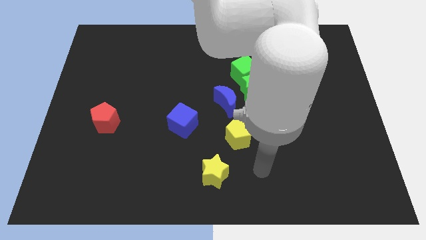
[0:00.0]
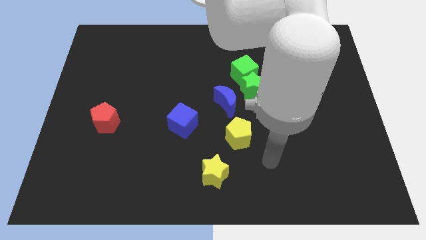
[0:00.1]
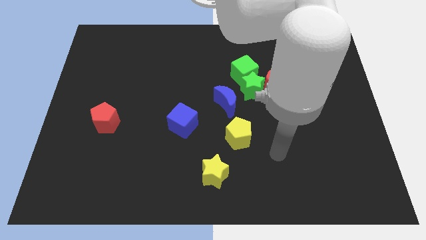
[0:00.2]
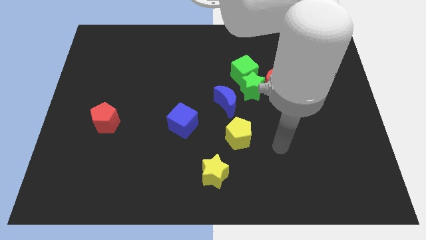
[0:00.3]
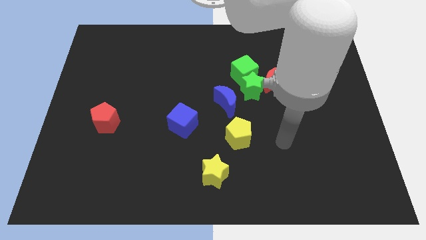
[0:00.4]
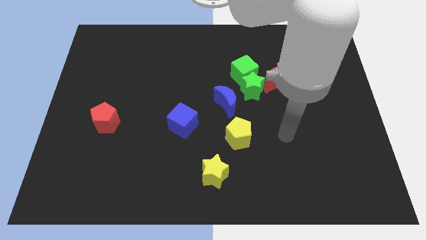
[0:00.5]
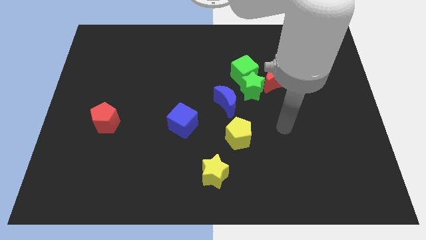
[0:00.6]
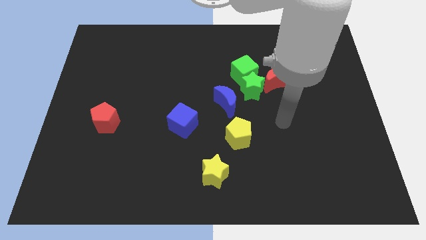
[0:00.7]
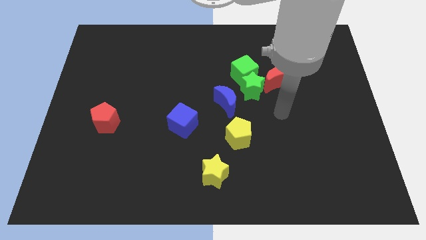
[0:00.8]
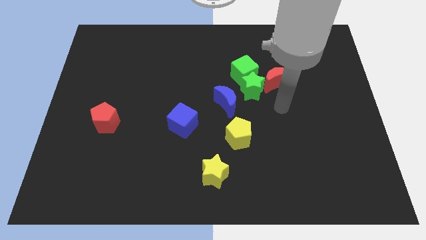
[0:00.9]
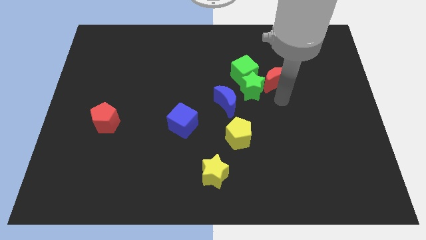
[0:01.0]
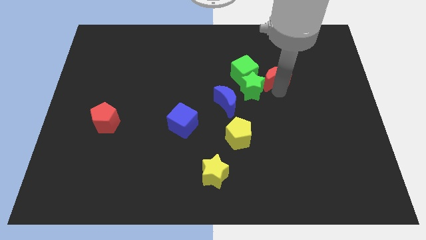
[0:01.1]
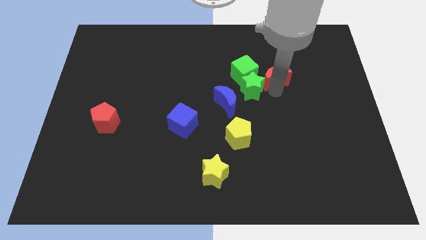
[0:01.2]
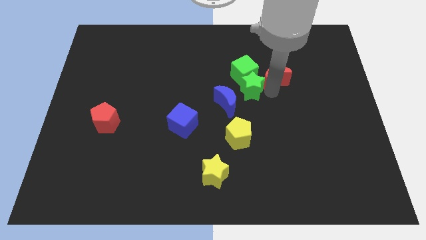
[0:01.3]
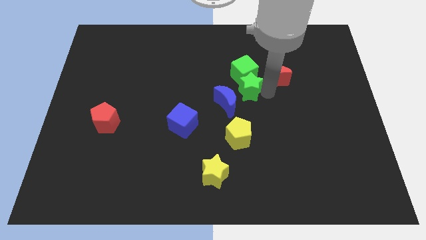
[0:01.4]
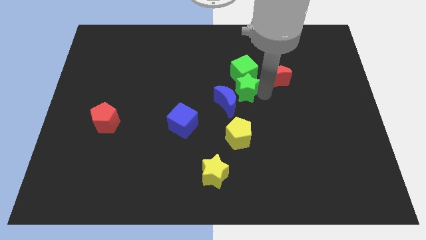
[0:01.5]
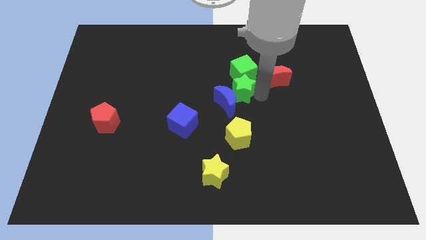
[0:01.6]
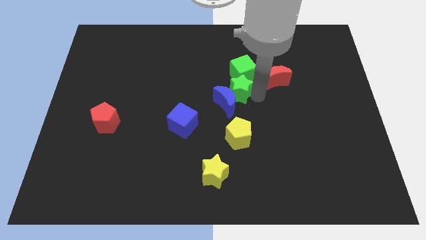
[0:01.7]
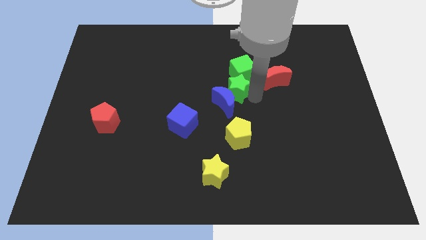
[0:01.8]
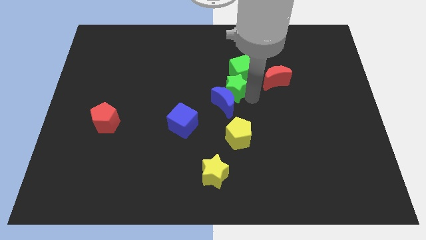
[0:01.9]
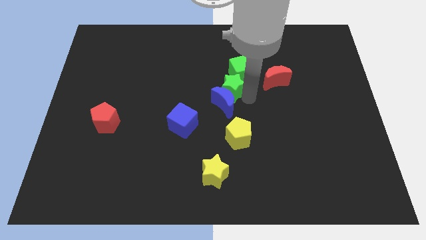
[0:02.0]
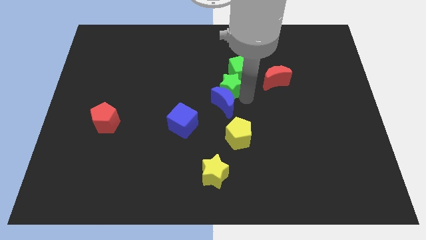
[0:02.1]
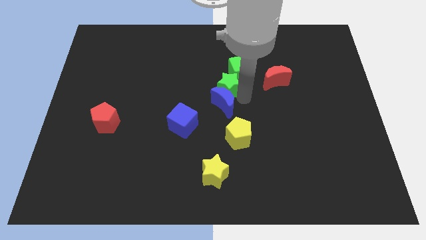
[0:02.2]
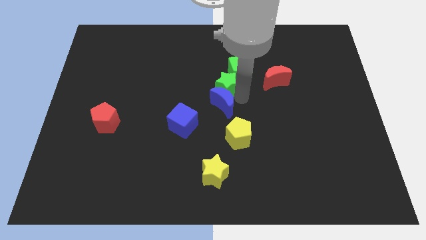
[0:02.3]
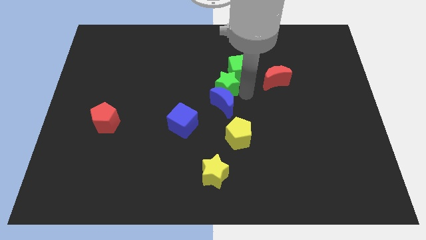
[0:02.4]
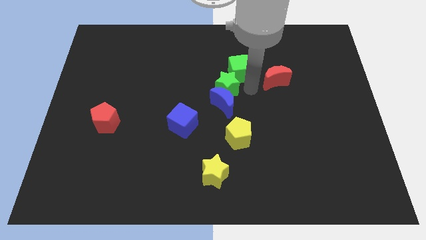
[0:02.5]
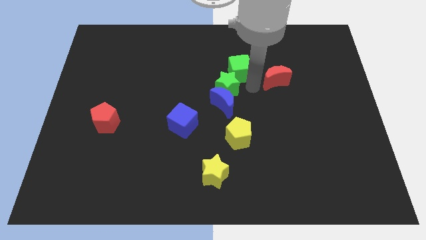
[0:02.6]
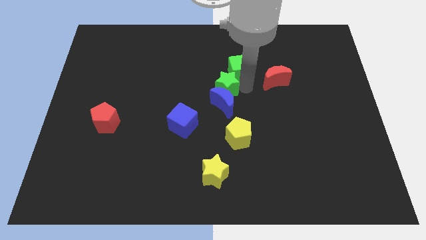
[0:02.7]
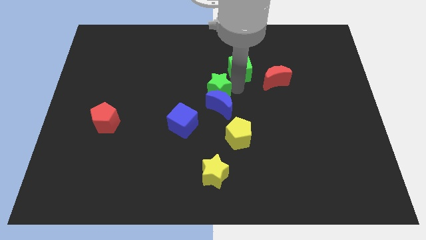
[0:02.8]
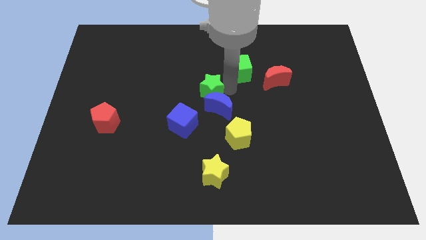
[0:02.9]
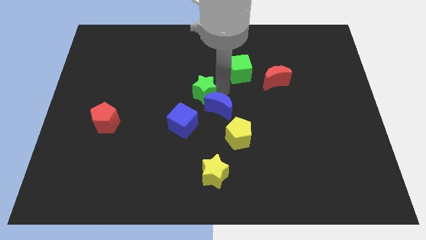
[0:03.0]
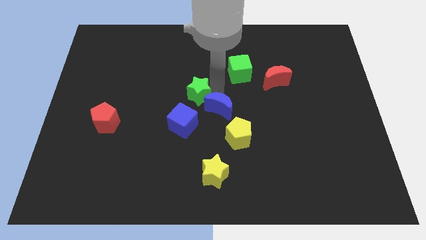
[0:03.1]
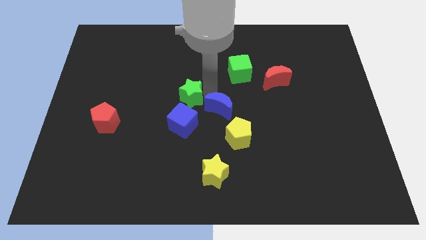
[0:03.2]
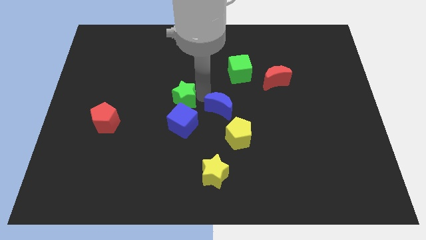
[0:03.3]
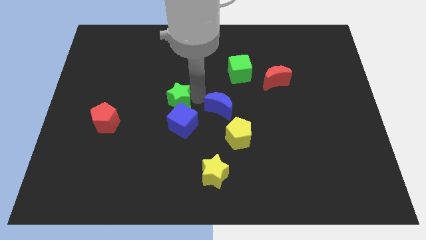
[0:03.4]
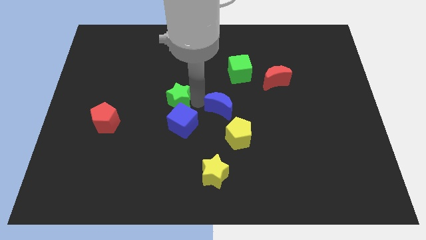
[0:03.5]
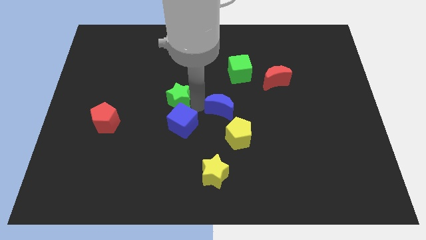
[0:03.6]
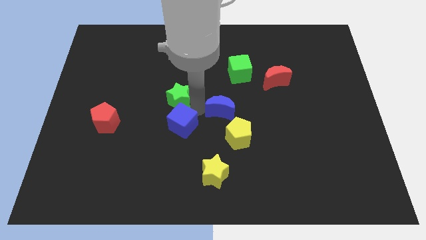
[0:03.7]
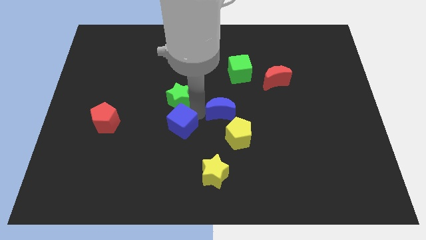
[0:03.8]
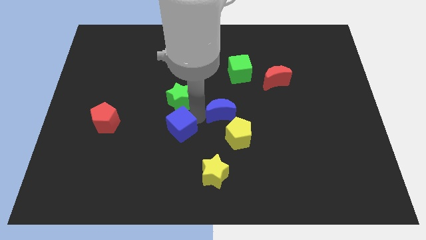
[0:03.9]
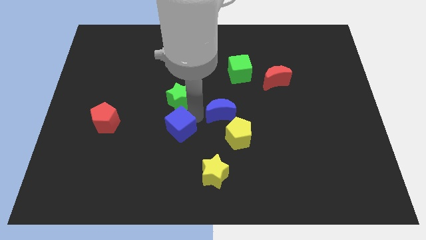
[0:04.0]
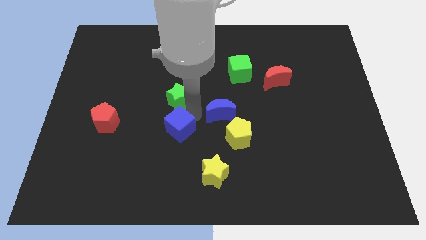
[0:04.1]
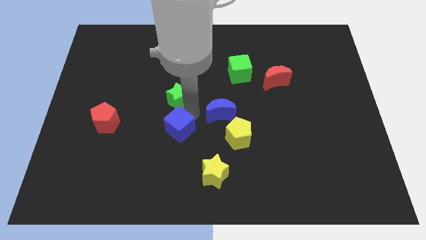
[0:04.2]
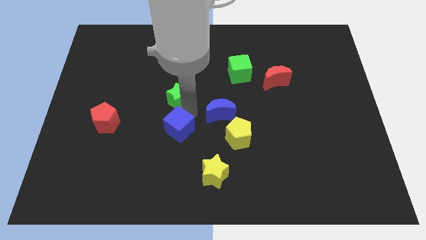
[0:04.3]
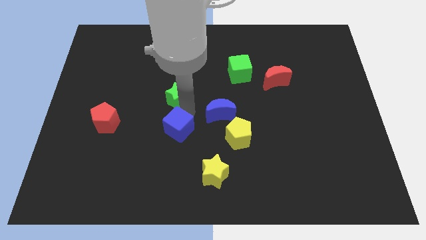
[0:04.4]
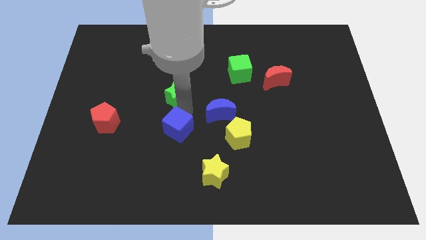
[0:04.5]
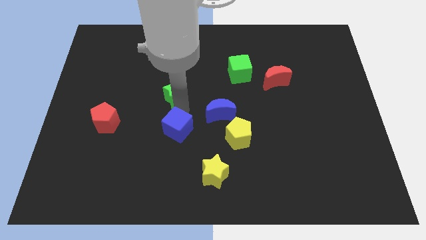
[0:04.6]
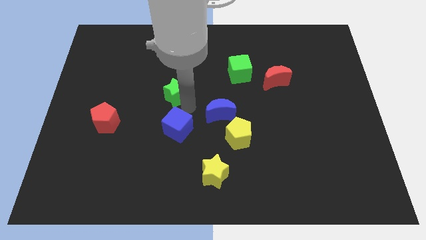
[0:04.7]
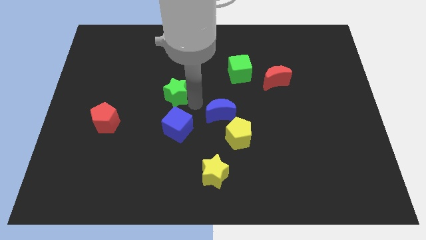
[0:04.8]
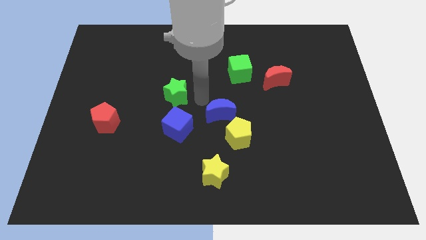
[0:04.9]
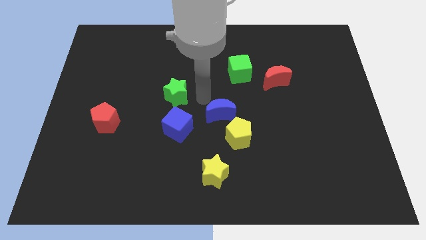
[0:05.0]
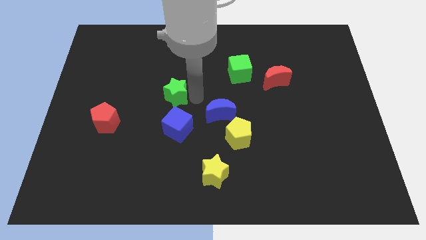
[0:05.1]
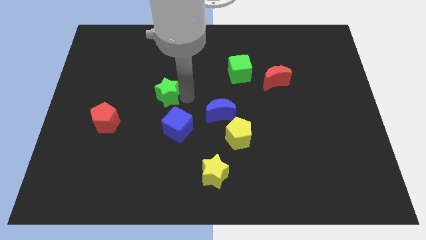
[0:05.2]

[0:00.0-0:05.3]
push the green star left

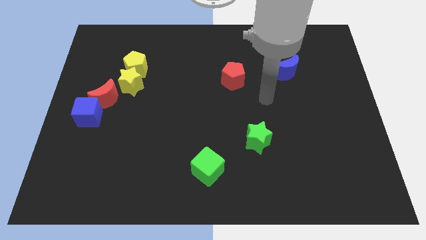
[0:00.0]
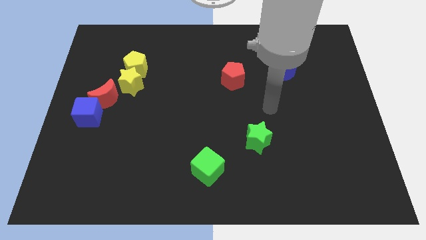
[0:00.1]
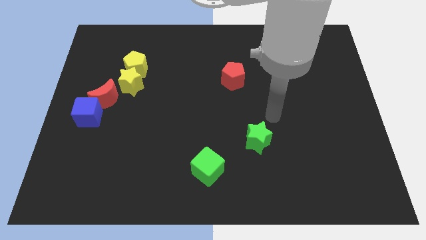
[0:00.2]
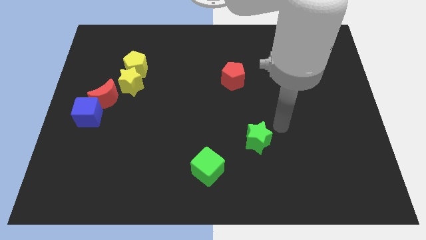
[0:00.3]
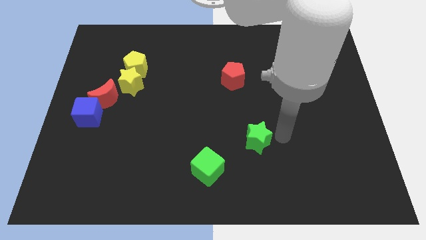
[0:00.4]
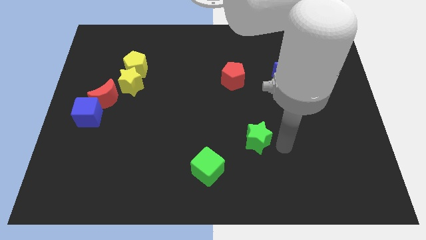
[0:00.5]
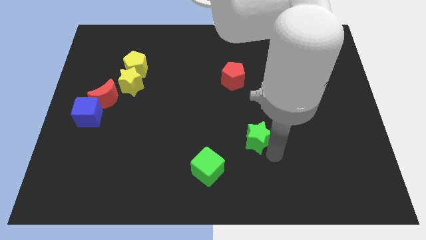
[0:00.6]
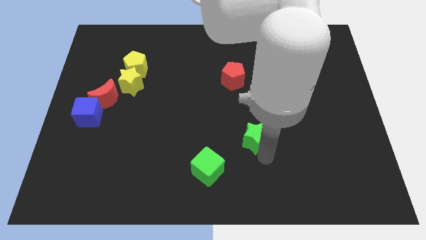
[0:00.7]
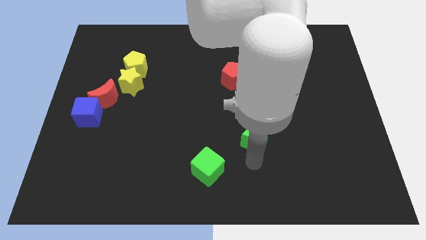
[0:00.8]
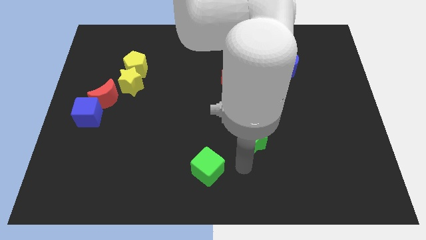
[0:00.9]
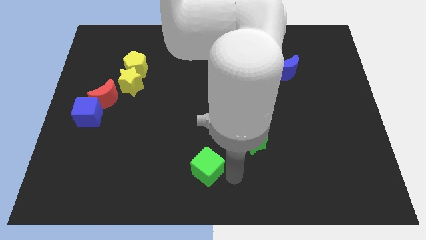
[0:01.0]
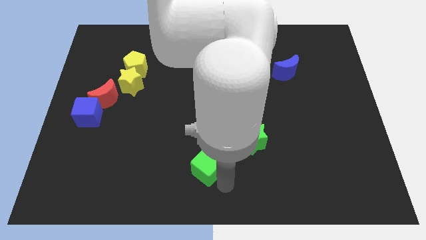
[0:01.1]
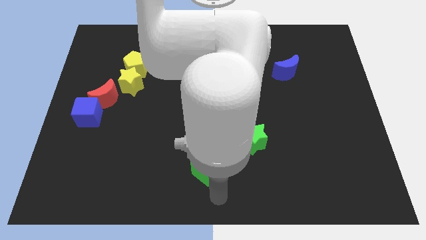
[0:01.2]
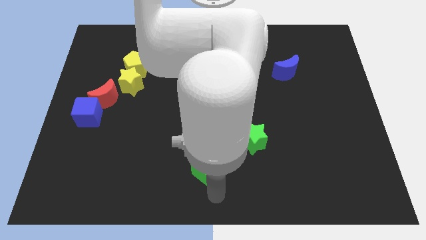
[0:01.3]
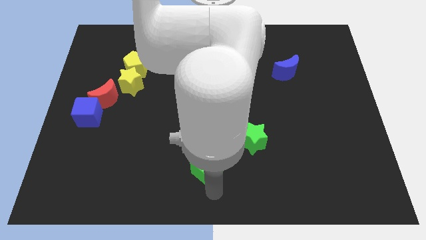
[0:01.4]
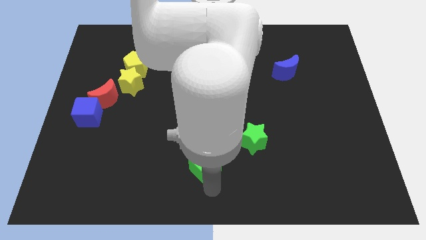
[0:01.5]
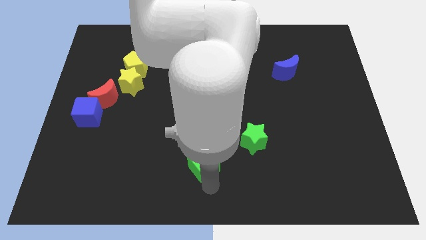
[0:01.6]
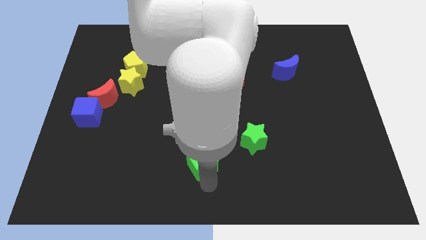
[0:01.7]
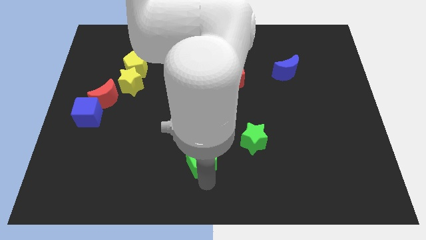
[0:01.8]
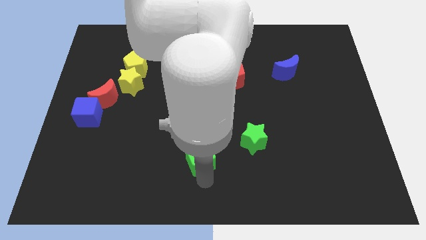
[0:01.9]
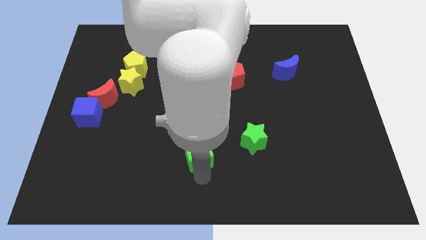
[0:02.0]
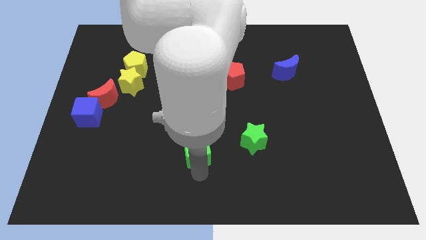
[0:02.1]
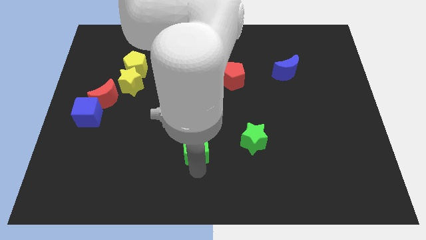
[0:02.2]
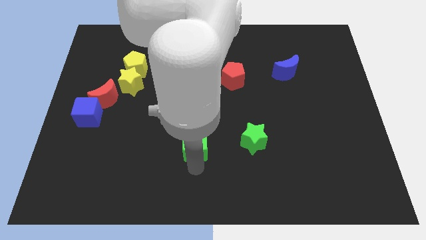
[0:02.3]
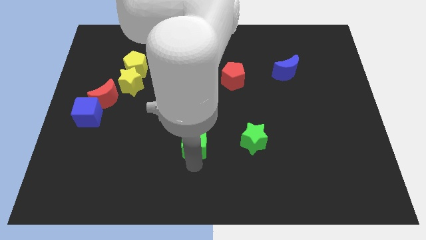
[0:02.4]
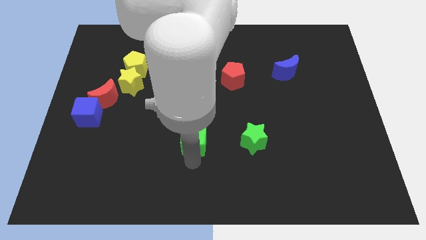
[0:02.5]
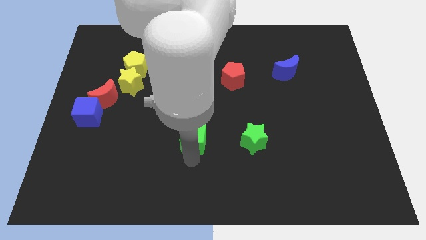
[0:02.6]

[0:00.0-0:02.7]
slide the green cube upwards somewhat

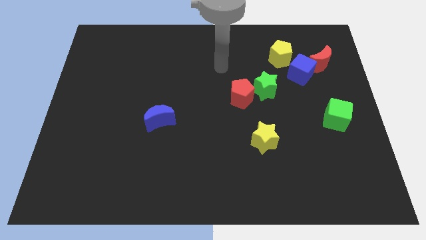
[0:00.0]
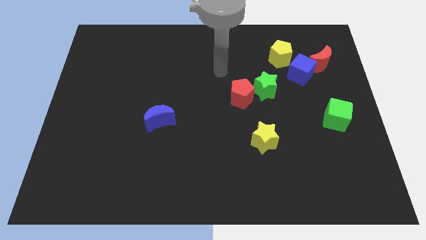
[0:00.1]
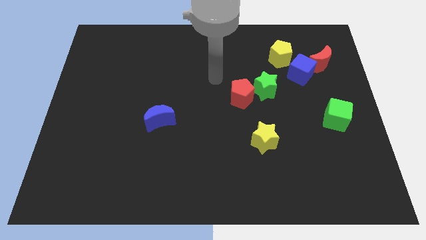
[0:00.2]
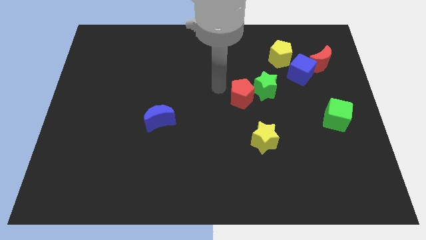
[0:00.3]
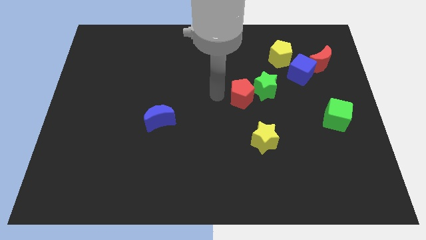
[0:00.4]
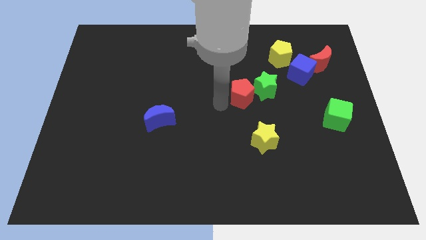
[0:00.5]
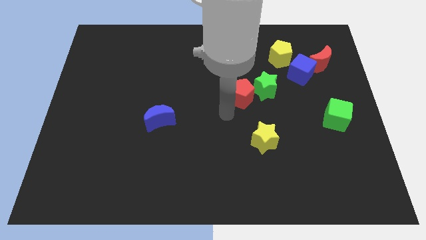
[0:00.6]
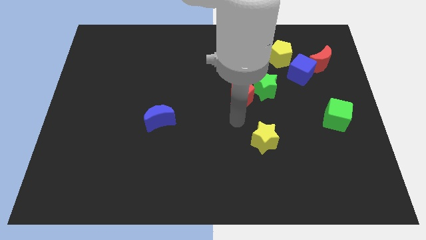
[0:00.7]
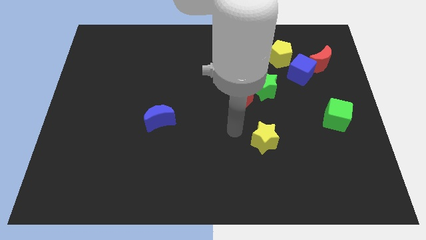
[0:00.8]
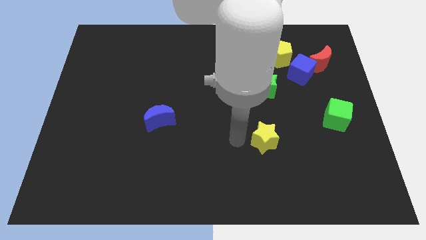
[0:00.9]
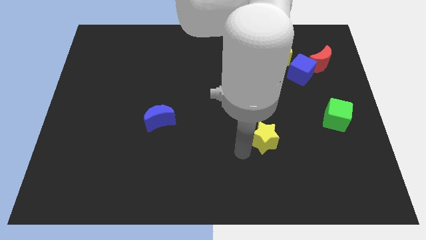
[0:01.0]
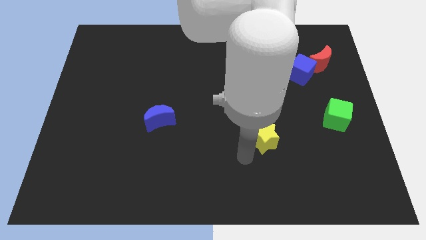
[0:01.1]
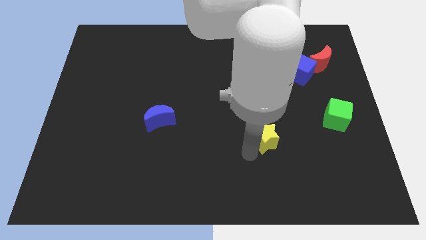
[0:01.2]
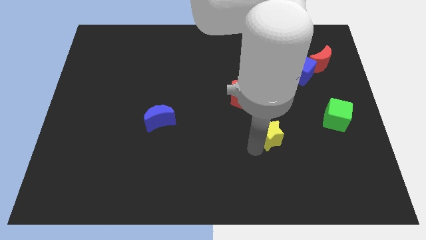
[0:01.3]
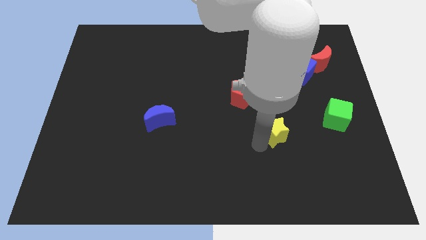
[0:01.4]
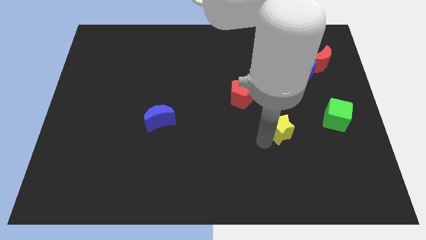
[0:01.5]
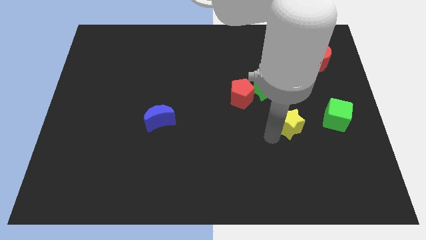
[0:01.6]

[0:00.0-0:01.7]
slightly slide the yellow star diagonally upwards and right
